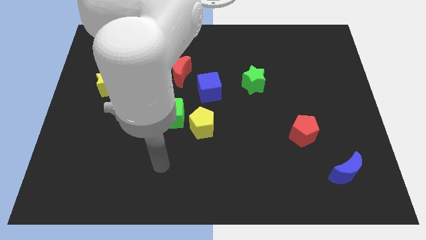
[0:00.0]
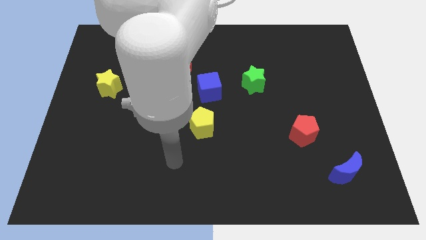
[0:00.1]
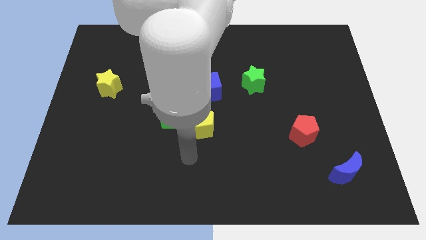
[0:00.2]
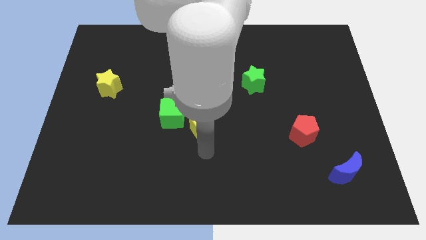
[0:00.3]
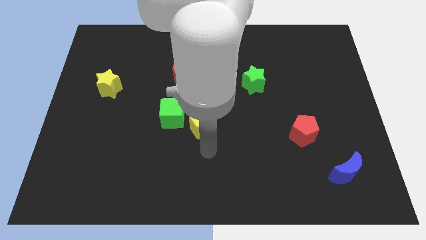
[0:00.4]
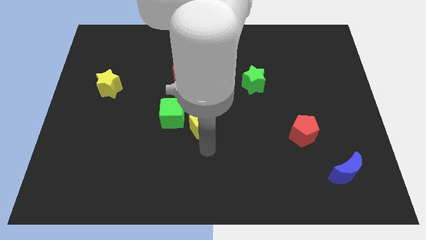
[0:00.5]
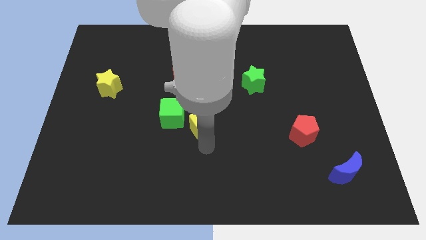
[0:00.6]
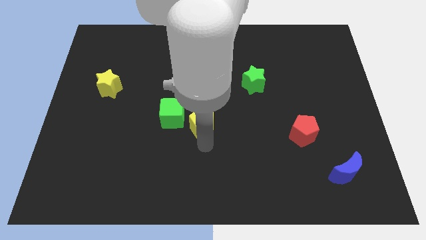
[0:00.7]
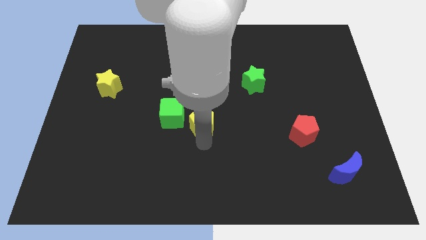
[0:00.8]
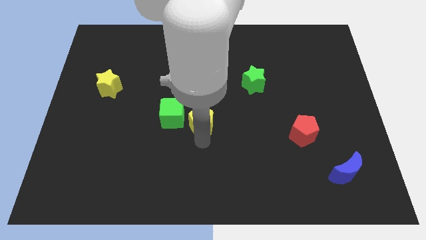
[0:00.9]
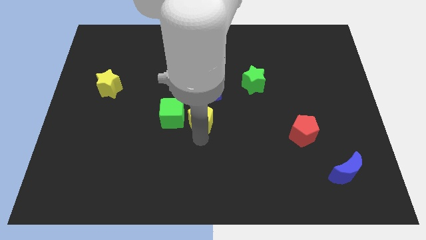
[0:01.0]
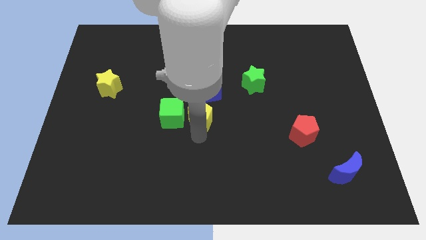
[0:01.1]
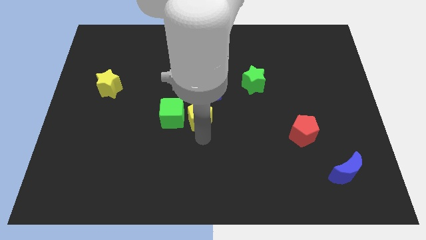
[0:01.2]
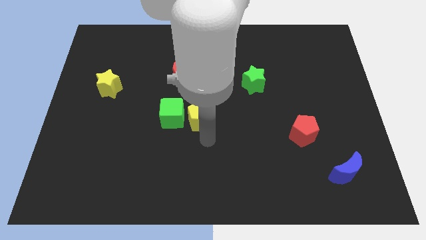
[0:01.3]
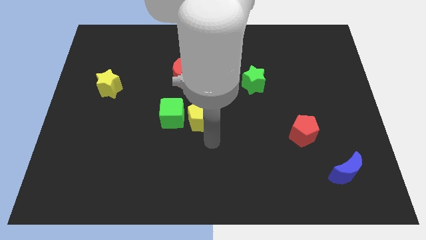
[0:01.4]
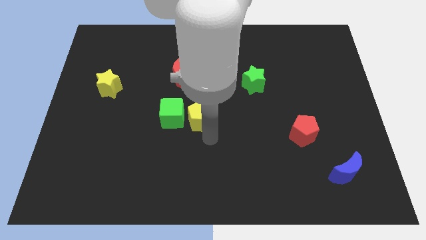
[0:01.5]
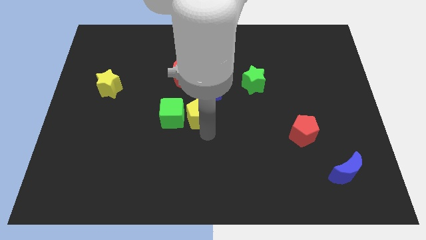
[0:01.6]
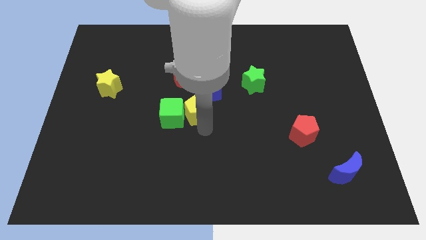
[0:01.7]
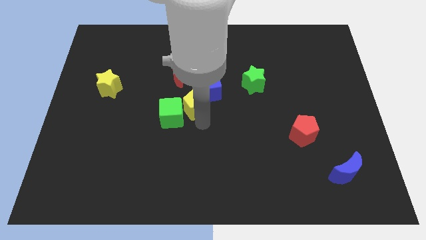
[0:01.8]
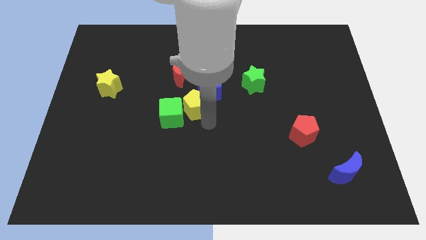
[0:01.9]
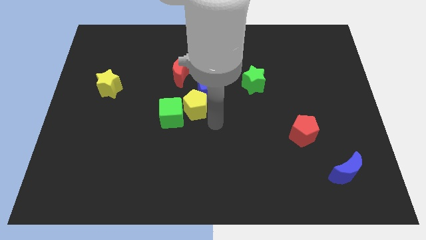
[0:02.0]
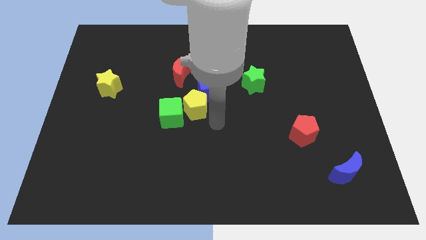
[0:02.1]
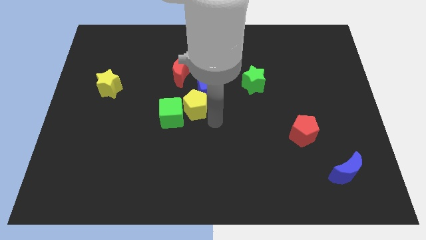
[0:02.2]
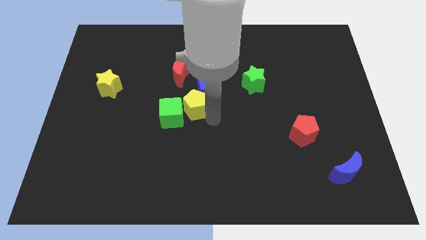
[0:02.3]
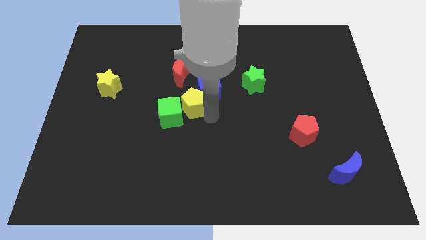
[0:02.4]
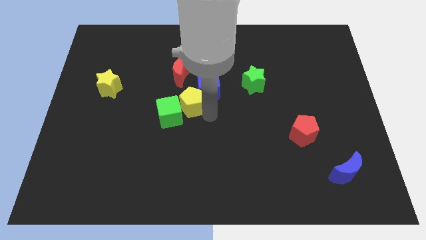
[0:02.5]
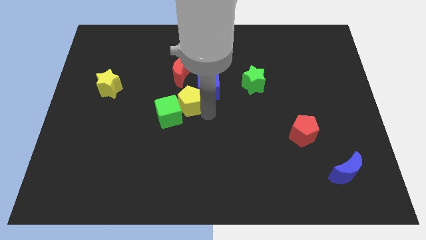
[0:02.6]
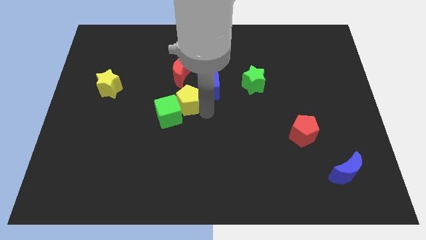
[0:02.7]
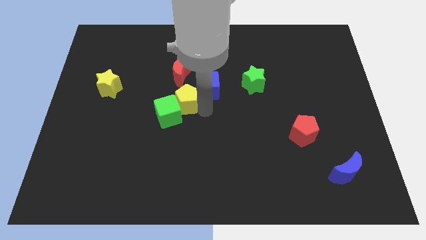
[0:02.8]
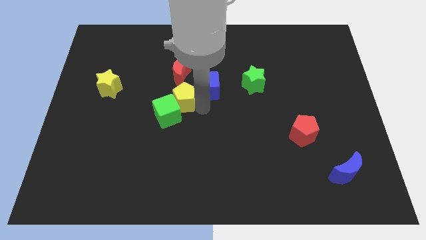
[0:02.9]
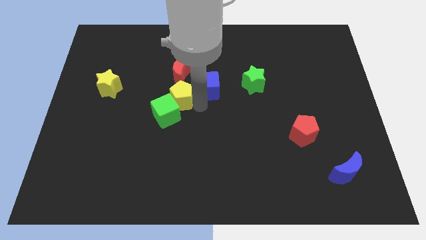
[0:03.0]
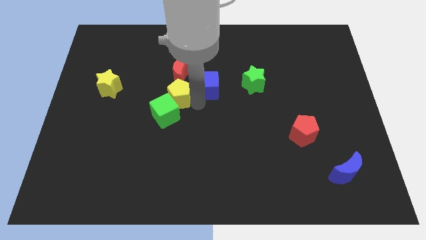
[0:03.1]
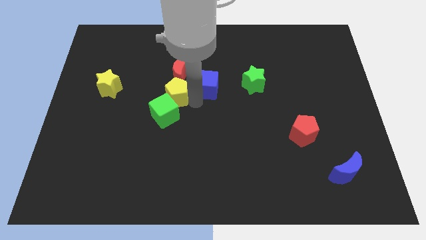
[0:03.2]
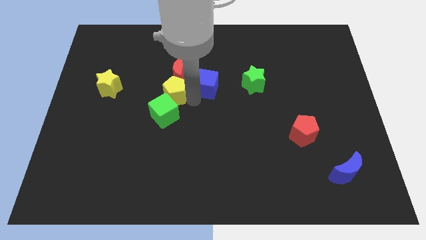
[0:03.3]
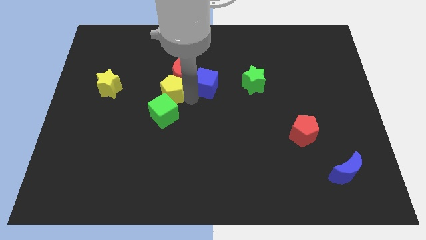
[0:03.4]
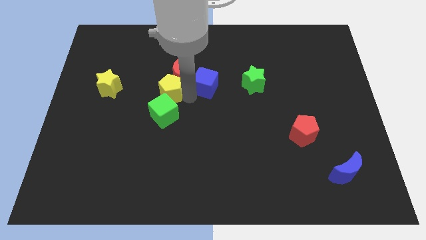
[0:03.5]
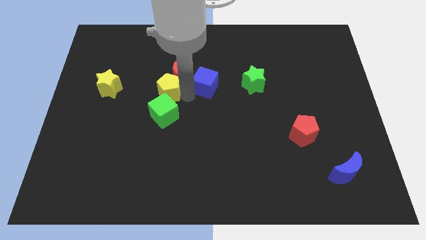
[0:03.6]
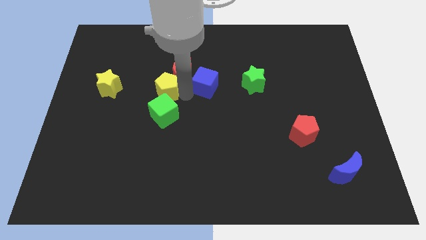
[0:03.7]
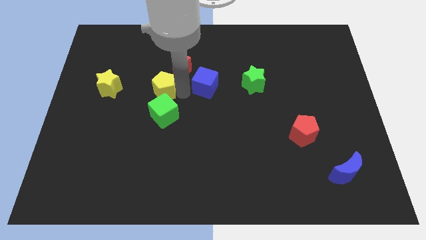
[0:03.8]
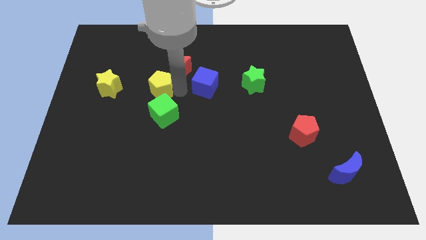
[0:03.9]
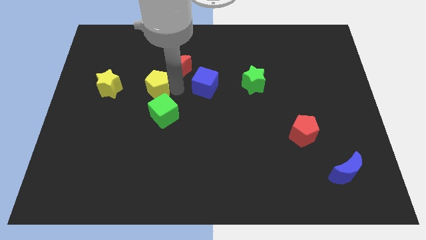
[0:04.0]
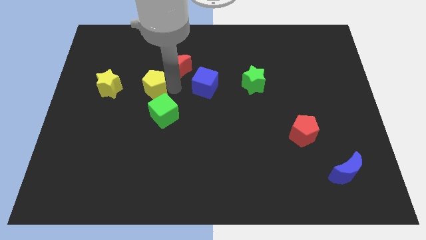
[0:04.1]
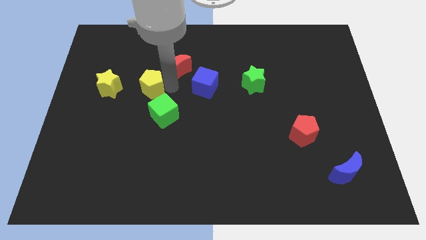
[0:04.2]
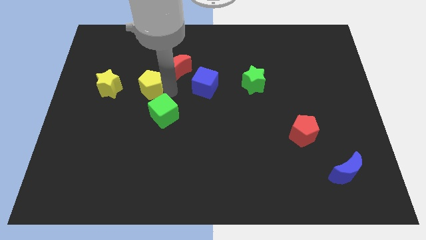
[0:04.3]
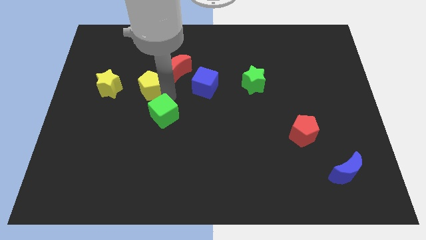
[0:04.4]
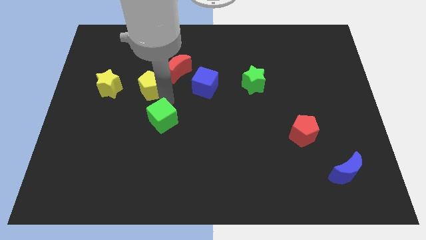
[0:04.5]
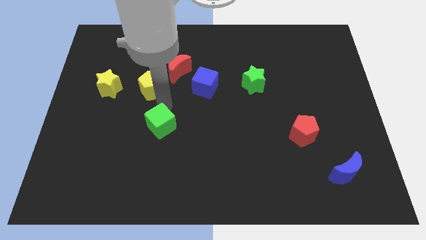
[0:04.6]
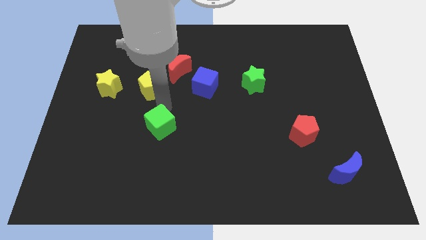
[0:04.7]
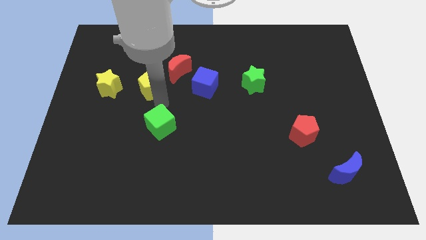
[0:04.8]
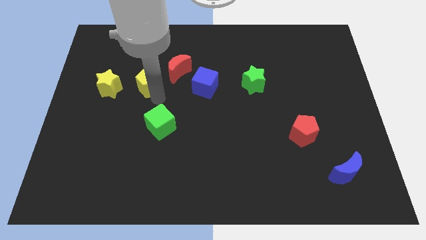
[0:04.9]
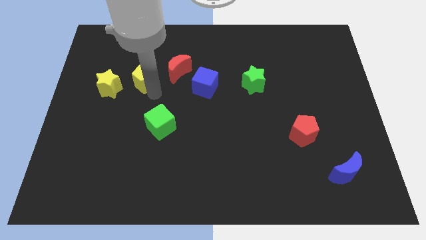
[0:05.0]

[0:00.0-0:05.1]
slide the yellow pentagon upwards and left

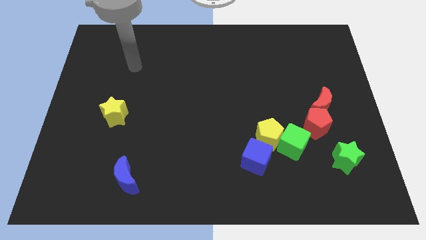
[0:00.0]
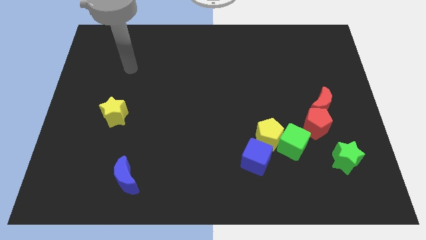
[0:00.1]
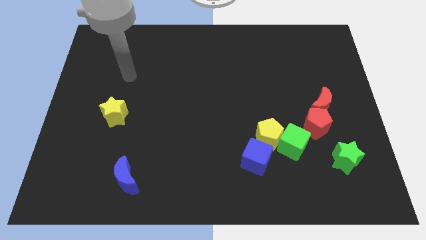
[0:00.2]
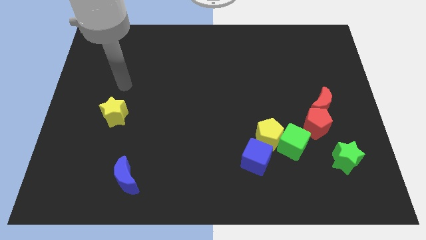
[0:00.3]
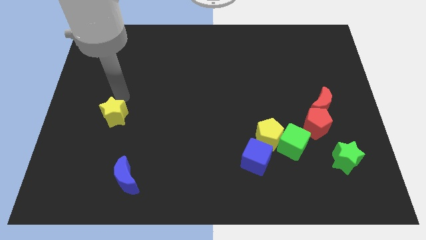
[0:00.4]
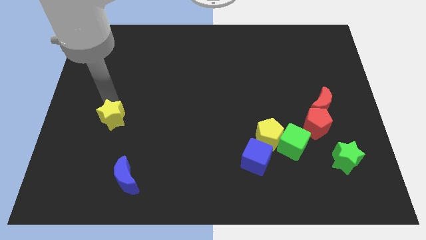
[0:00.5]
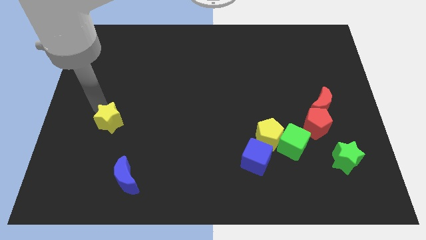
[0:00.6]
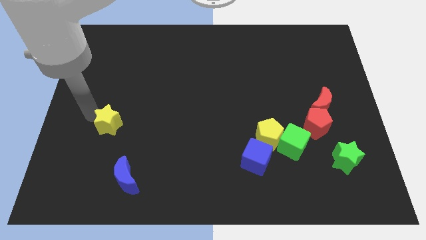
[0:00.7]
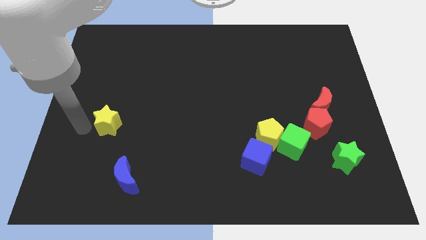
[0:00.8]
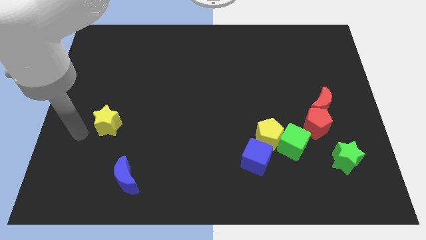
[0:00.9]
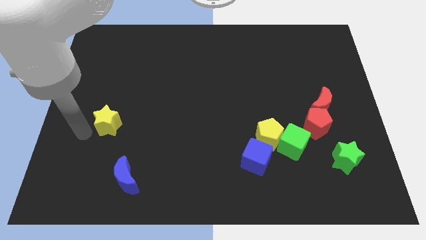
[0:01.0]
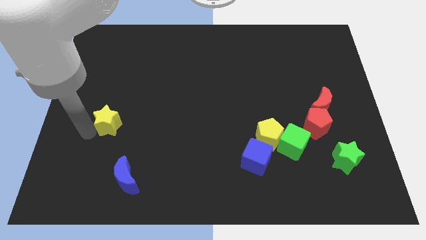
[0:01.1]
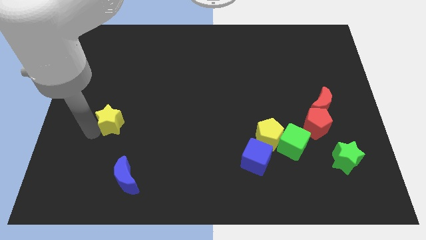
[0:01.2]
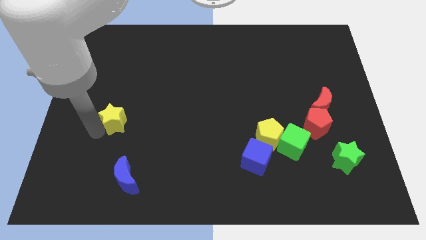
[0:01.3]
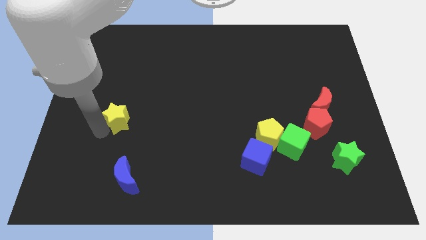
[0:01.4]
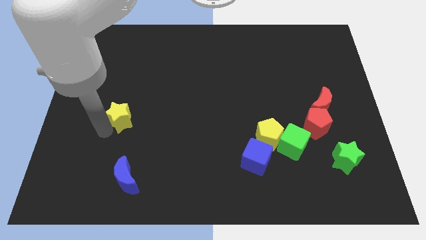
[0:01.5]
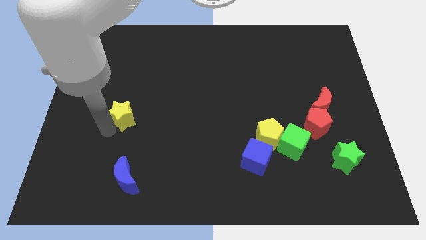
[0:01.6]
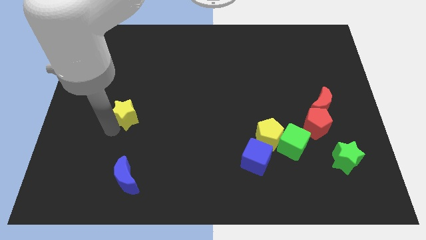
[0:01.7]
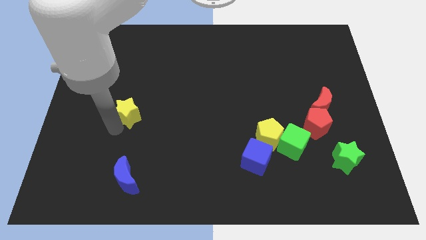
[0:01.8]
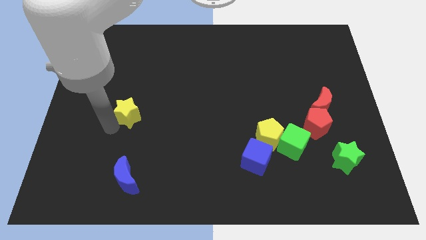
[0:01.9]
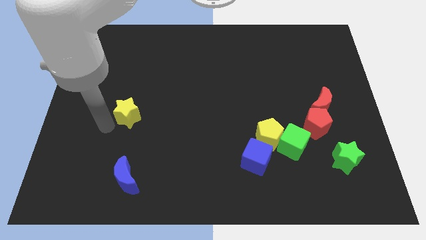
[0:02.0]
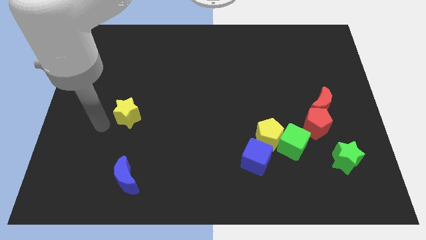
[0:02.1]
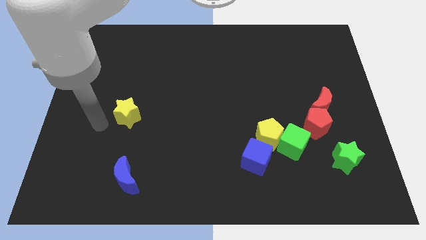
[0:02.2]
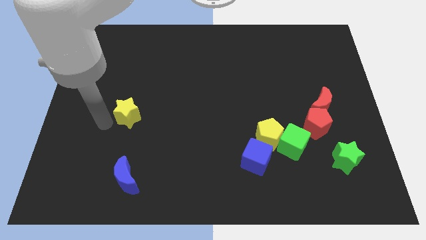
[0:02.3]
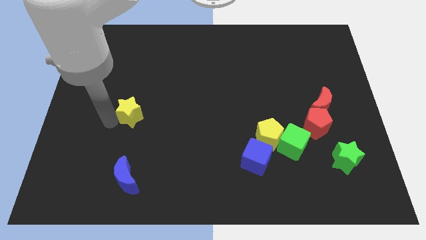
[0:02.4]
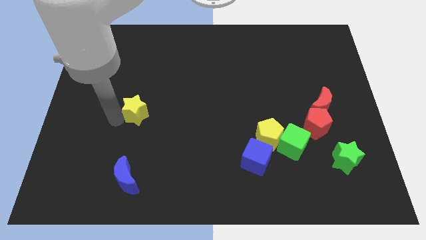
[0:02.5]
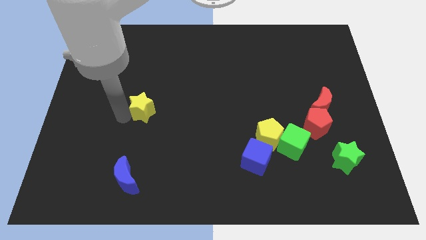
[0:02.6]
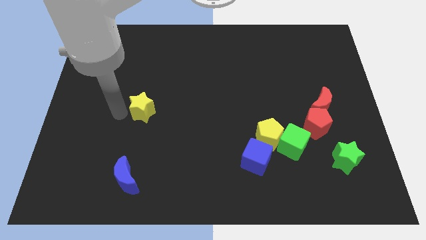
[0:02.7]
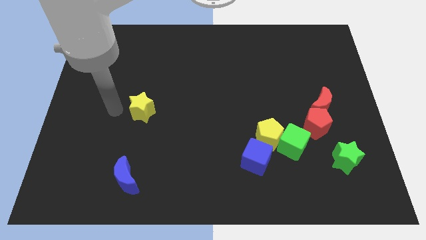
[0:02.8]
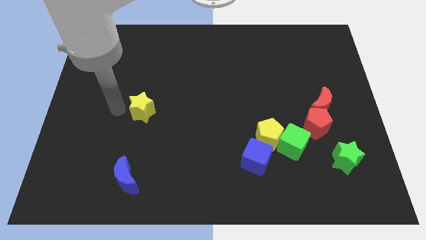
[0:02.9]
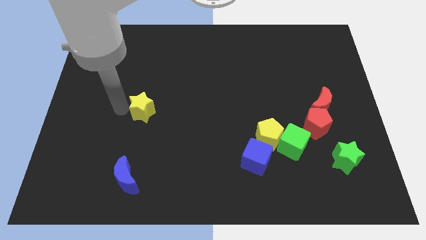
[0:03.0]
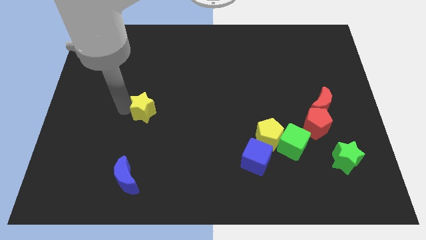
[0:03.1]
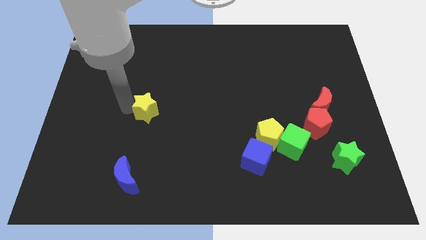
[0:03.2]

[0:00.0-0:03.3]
slide the yellow star right a little bit
